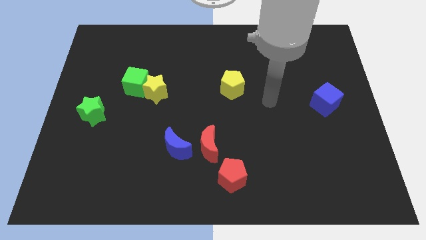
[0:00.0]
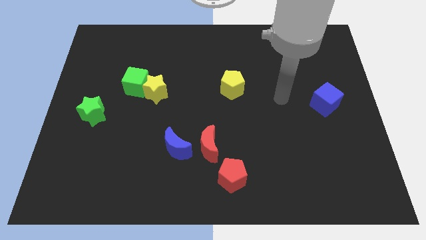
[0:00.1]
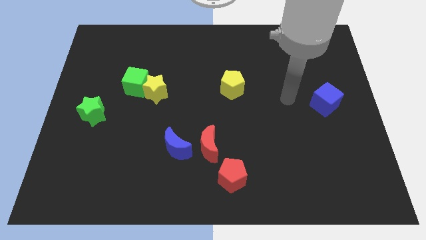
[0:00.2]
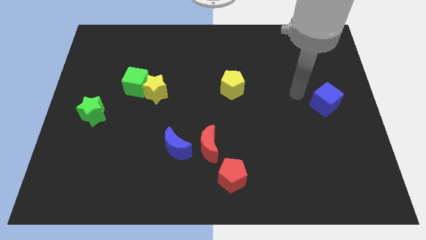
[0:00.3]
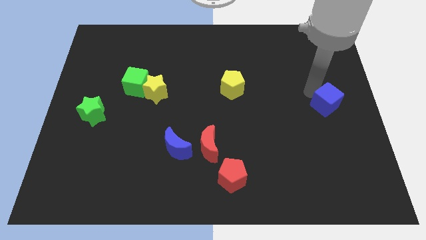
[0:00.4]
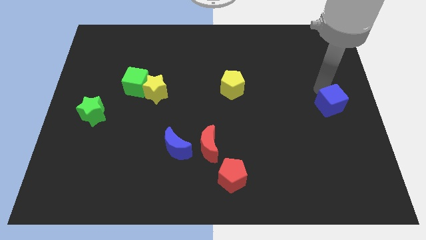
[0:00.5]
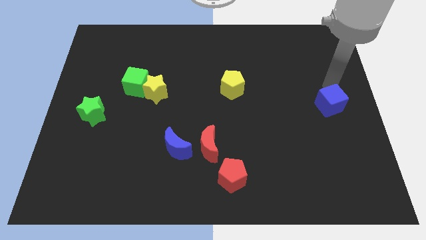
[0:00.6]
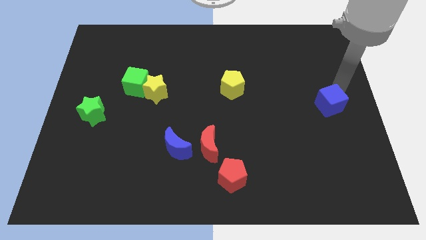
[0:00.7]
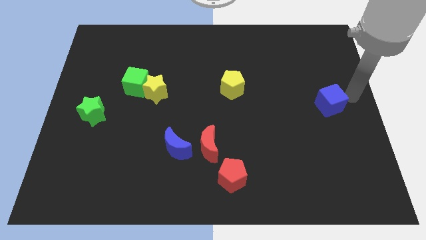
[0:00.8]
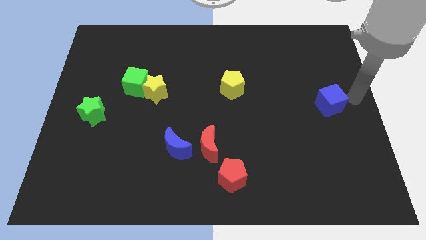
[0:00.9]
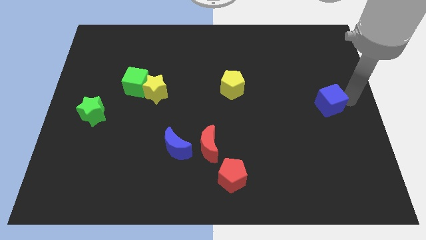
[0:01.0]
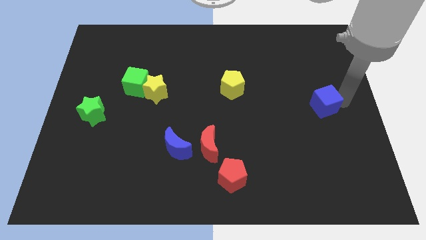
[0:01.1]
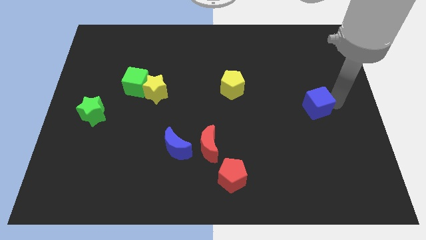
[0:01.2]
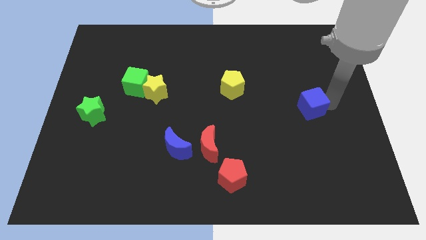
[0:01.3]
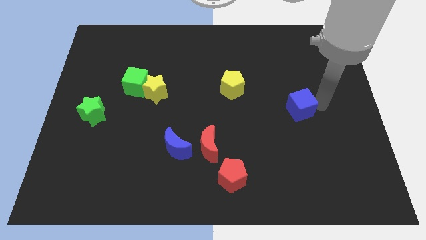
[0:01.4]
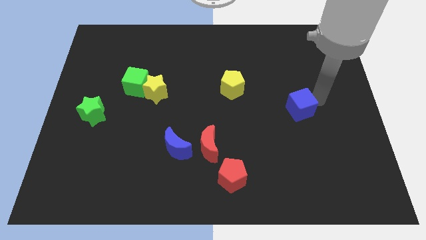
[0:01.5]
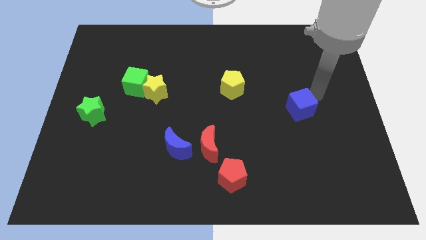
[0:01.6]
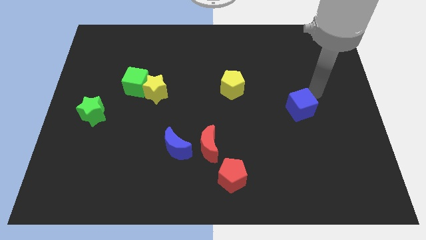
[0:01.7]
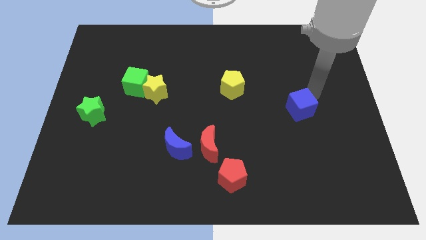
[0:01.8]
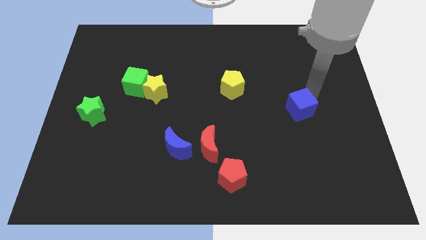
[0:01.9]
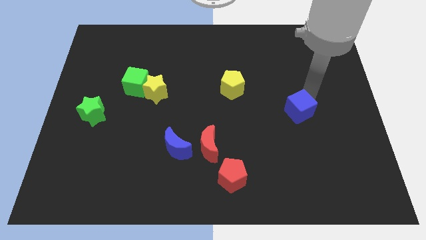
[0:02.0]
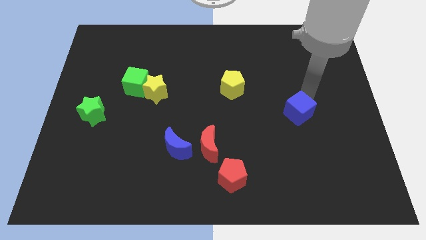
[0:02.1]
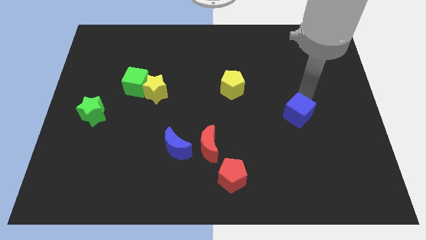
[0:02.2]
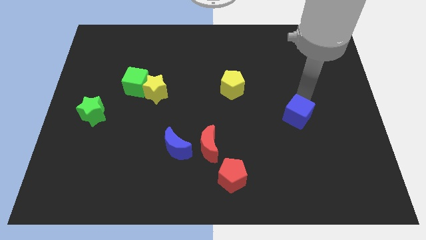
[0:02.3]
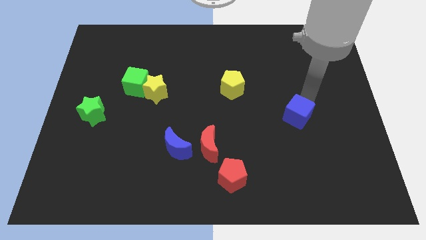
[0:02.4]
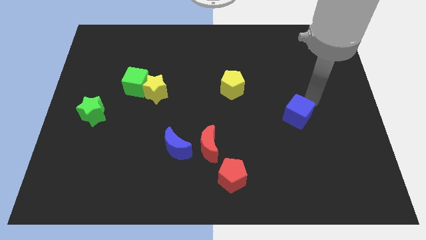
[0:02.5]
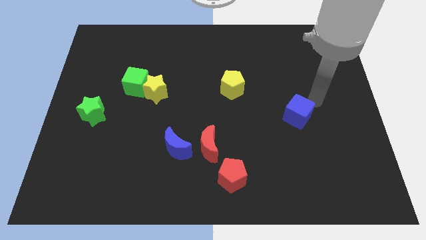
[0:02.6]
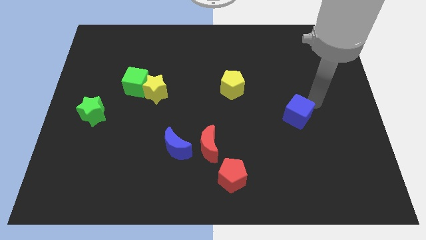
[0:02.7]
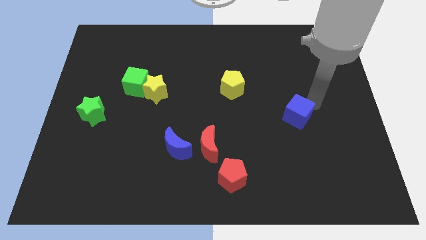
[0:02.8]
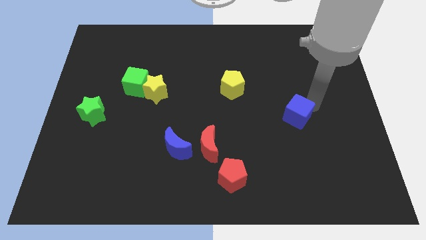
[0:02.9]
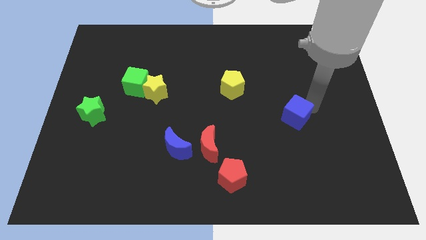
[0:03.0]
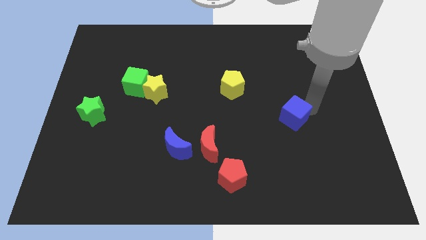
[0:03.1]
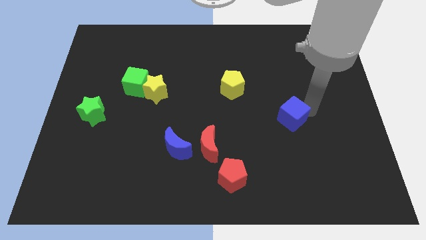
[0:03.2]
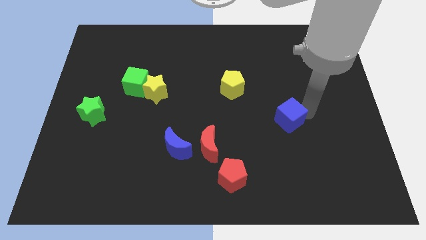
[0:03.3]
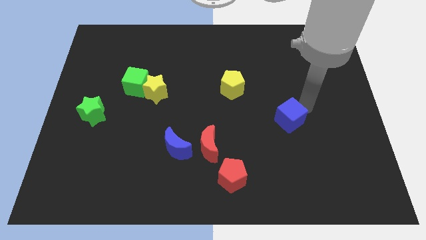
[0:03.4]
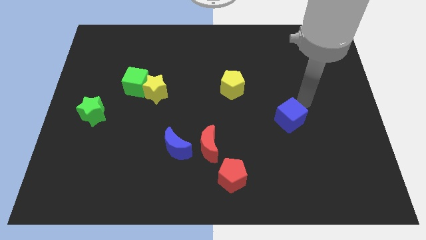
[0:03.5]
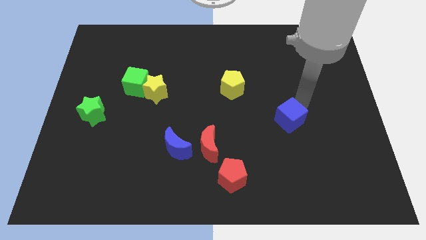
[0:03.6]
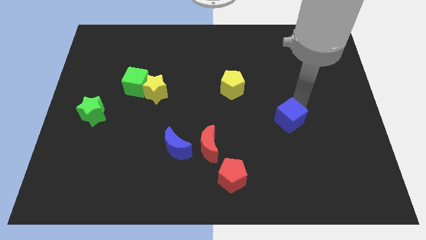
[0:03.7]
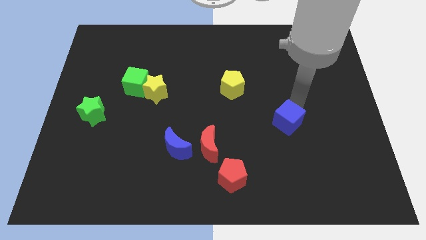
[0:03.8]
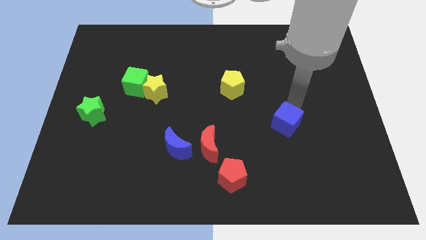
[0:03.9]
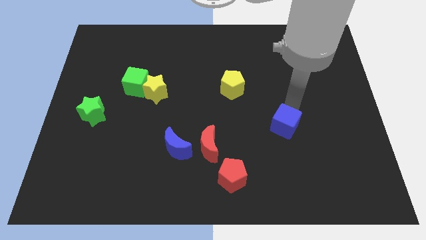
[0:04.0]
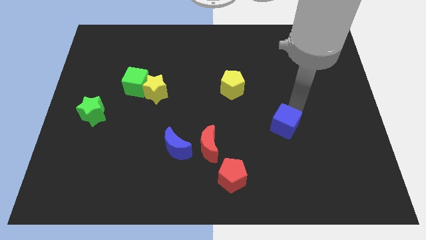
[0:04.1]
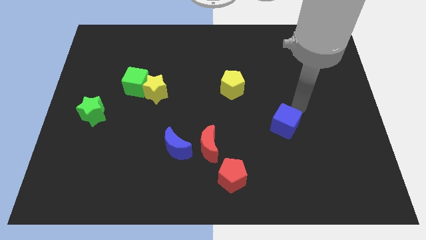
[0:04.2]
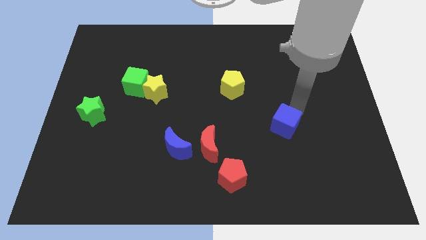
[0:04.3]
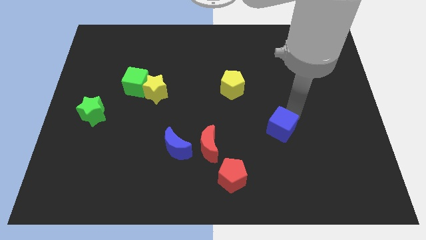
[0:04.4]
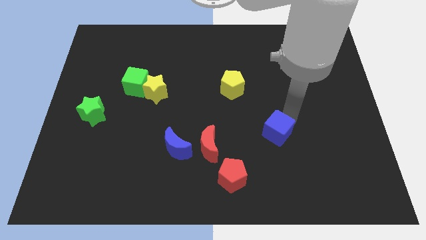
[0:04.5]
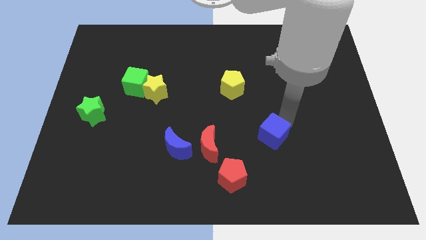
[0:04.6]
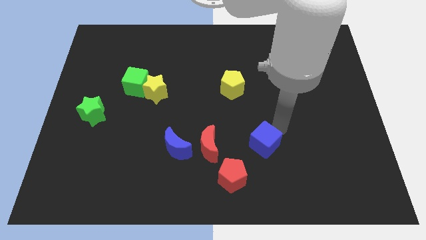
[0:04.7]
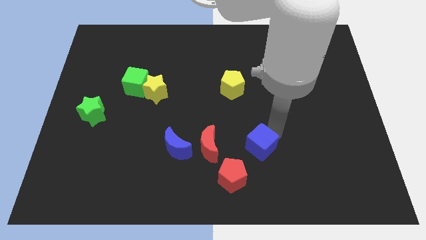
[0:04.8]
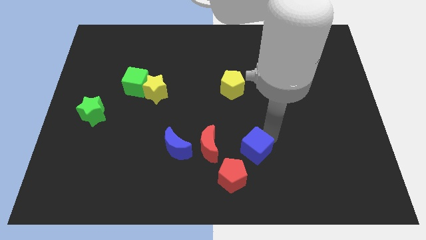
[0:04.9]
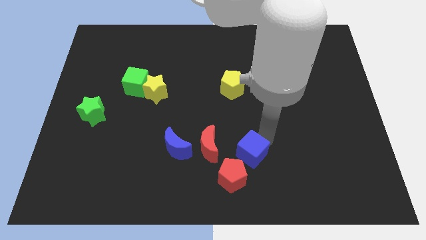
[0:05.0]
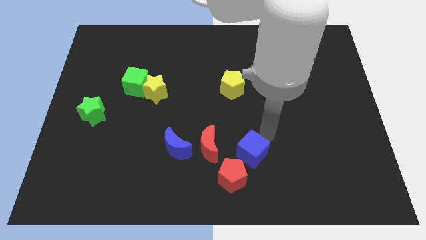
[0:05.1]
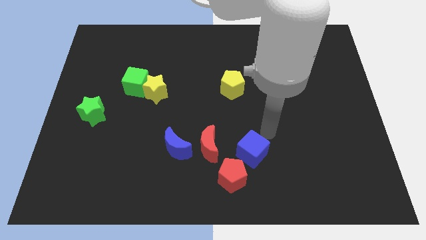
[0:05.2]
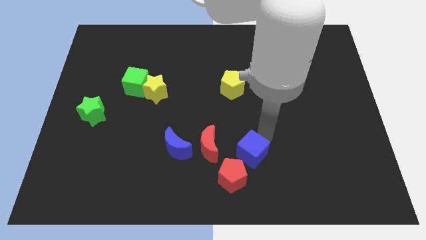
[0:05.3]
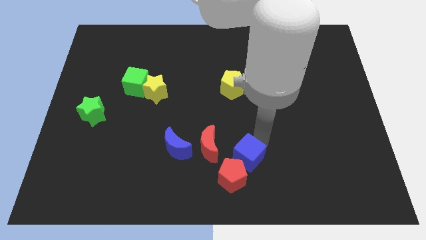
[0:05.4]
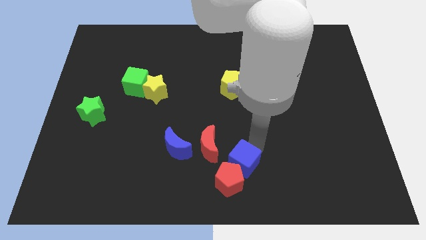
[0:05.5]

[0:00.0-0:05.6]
move the blue cube close to the red pentagon
